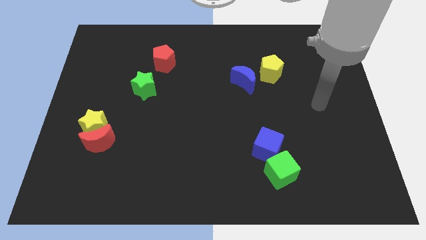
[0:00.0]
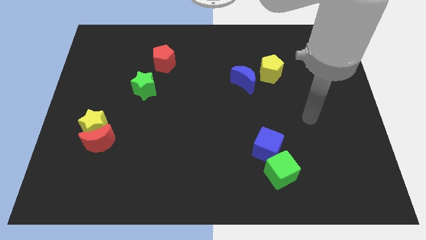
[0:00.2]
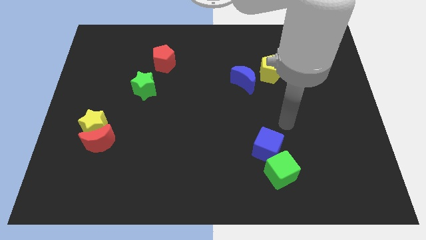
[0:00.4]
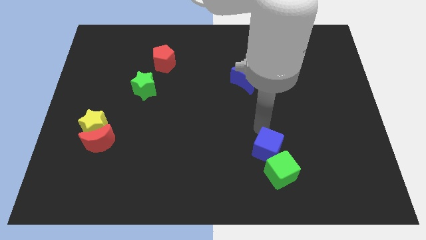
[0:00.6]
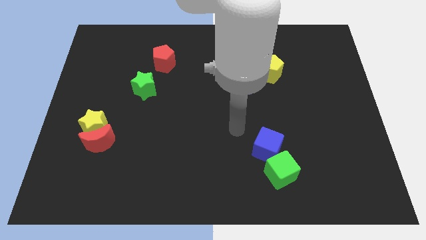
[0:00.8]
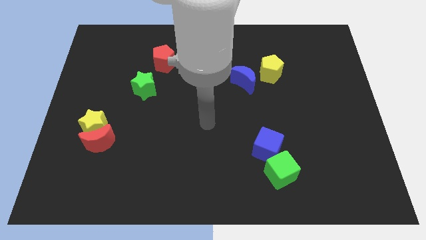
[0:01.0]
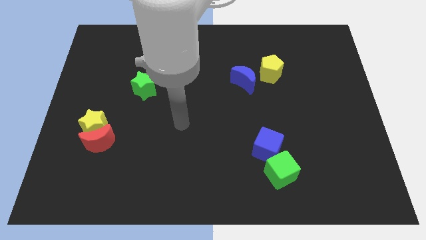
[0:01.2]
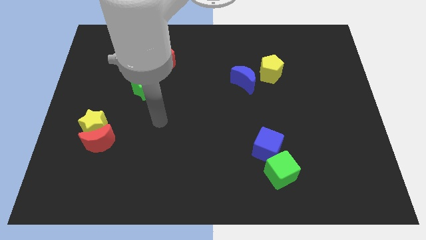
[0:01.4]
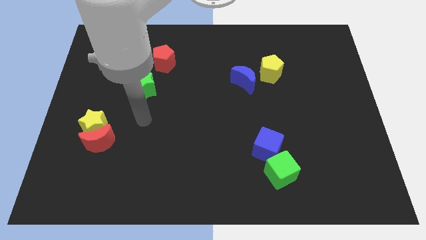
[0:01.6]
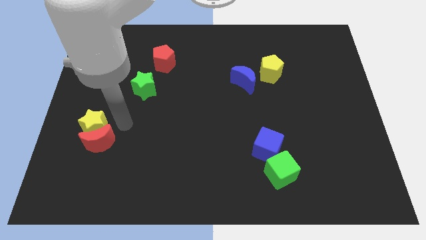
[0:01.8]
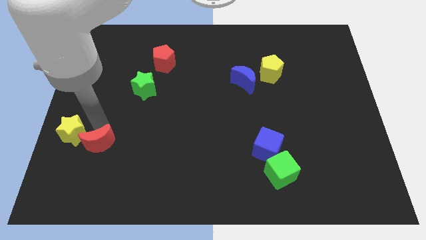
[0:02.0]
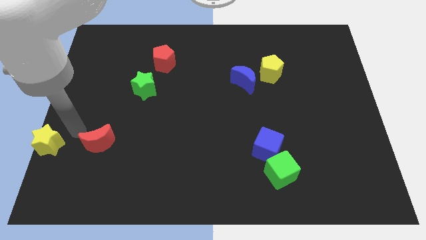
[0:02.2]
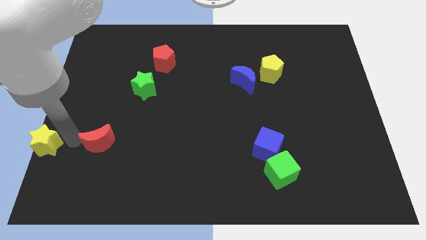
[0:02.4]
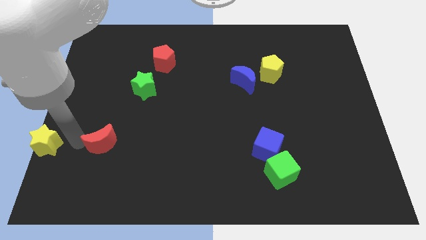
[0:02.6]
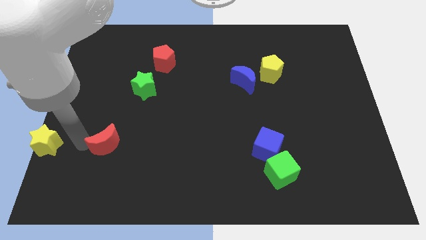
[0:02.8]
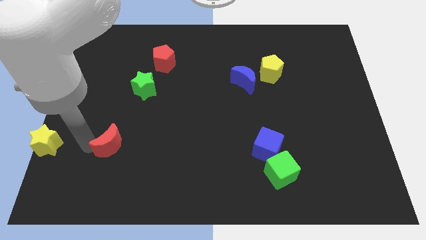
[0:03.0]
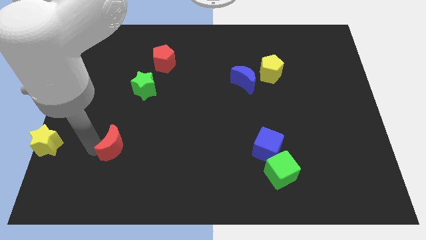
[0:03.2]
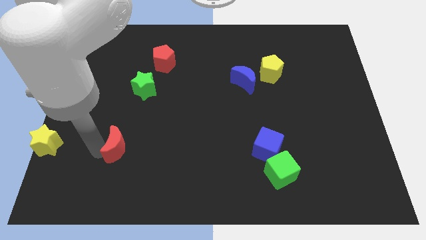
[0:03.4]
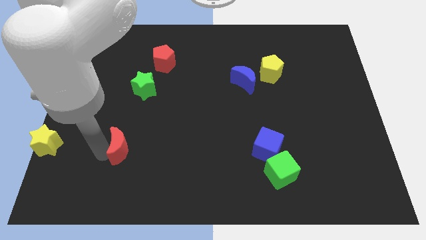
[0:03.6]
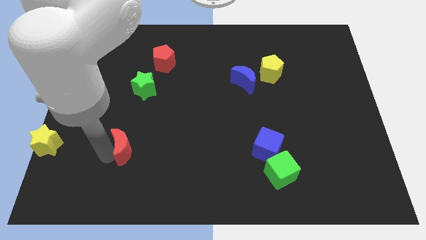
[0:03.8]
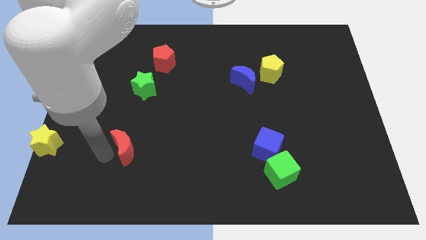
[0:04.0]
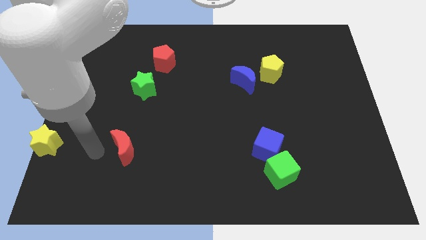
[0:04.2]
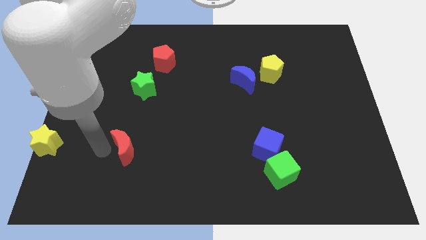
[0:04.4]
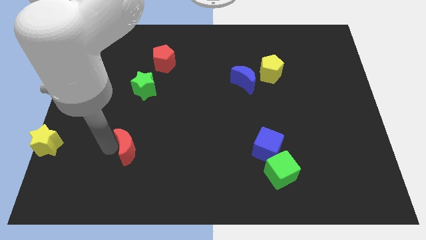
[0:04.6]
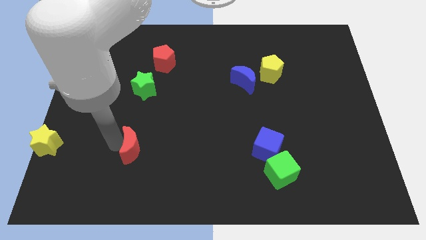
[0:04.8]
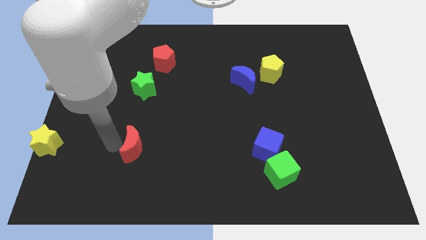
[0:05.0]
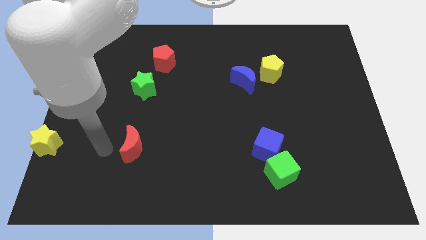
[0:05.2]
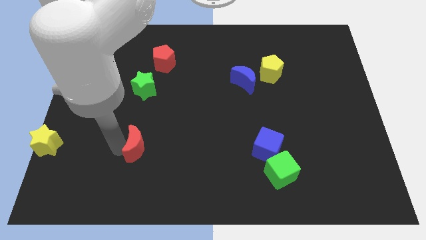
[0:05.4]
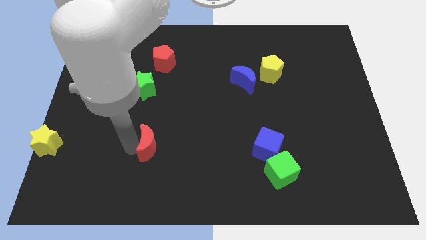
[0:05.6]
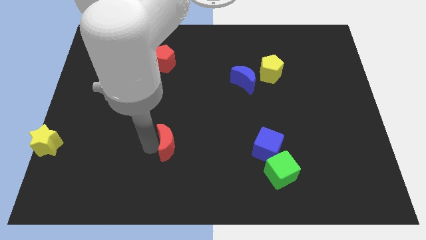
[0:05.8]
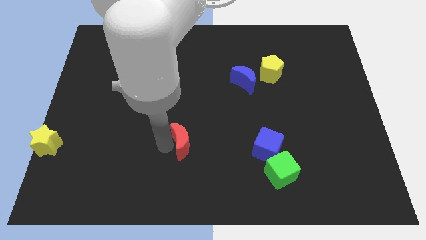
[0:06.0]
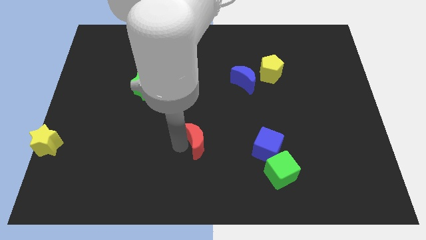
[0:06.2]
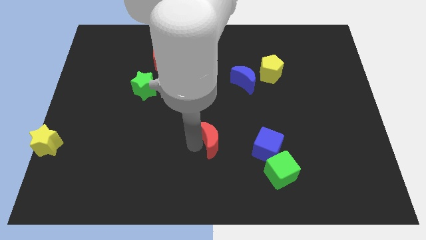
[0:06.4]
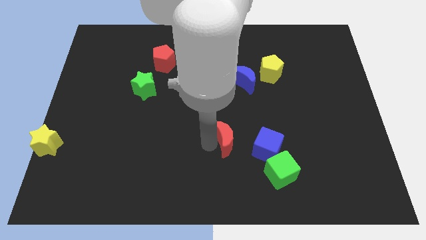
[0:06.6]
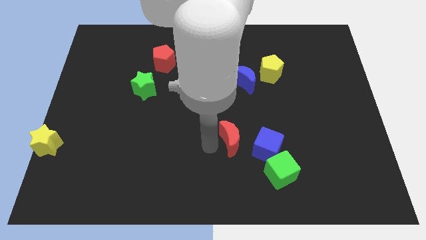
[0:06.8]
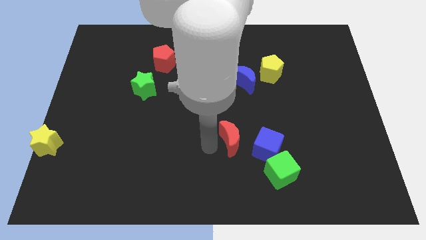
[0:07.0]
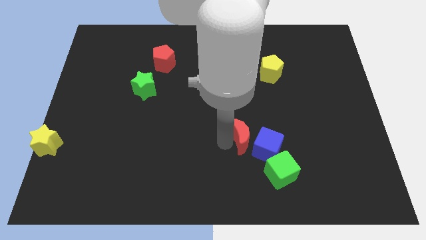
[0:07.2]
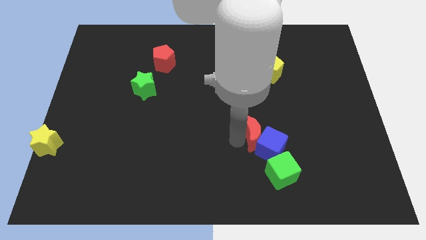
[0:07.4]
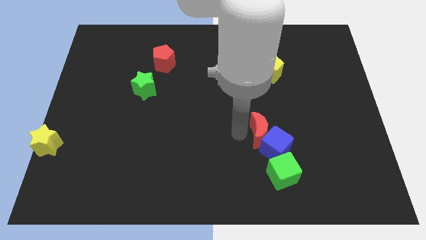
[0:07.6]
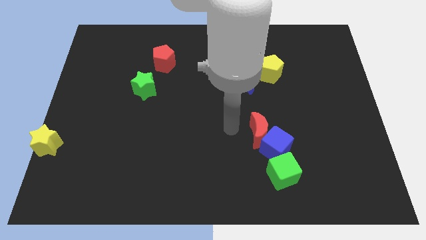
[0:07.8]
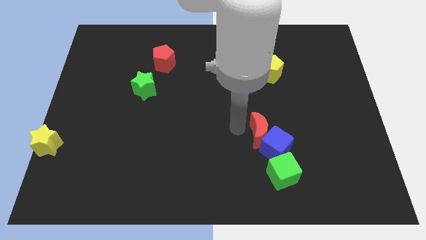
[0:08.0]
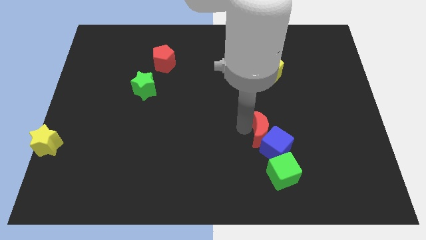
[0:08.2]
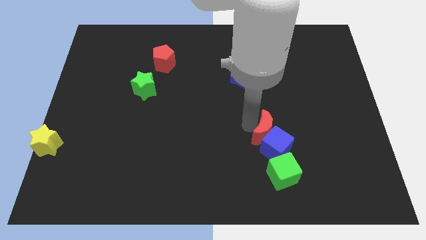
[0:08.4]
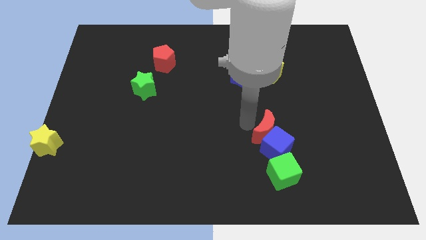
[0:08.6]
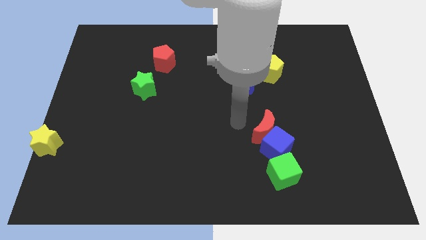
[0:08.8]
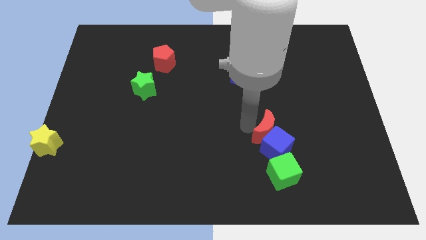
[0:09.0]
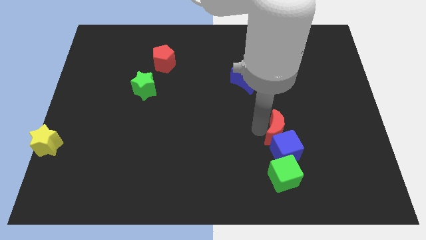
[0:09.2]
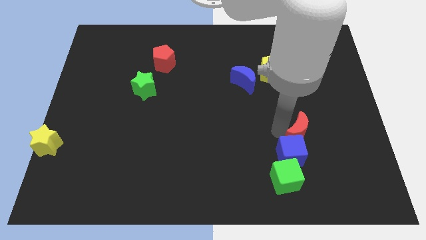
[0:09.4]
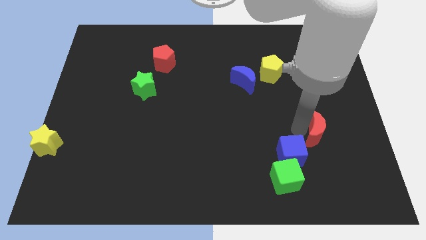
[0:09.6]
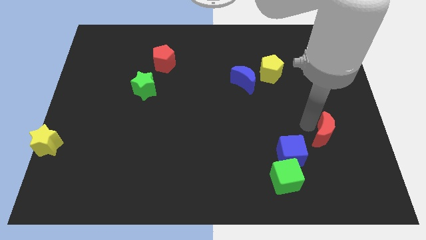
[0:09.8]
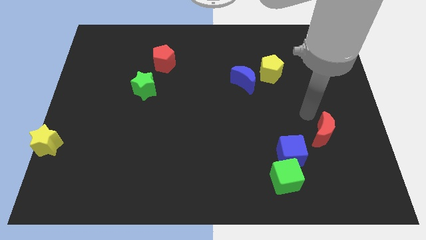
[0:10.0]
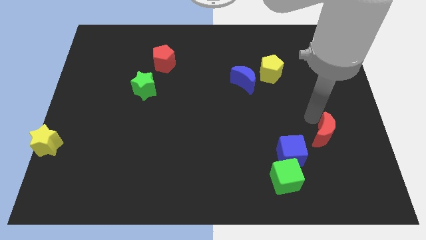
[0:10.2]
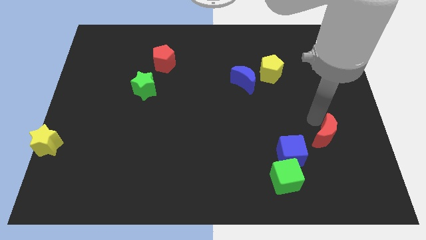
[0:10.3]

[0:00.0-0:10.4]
move the red moon right of the blue cube

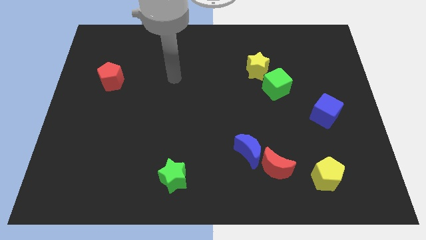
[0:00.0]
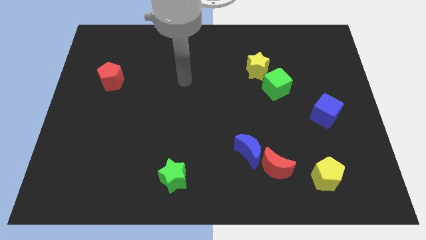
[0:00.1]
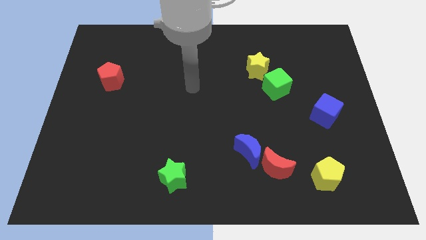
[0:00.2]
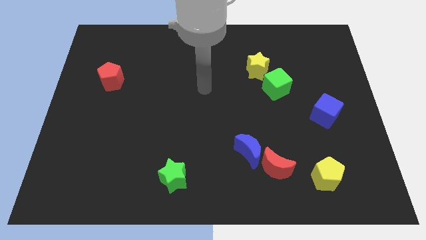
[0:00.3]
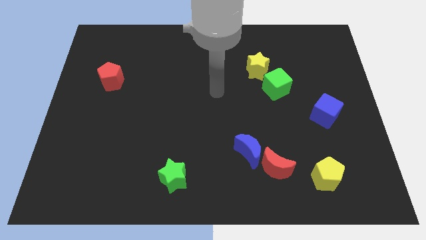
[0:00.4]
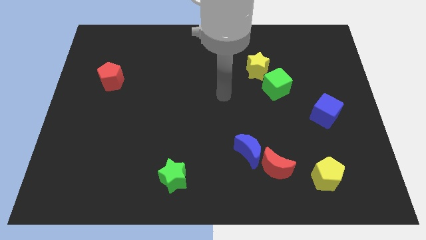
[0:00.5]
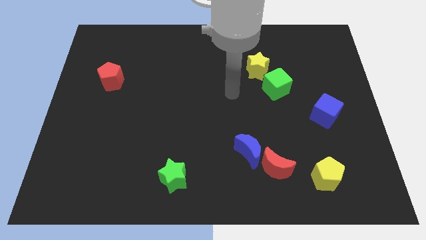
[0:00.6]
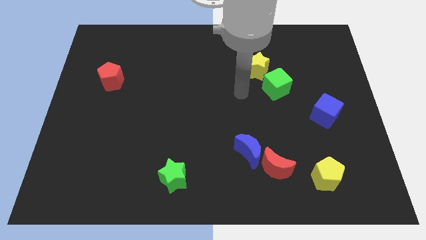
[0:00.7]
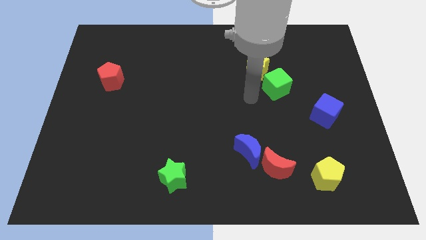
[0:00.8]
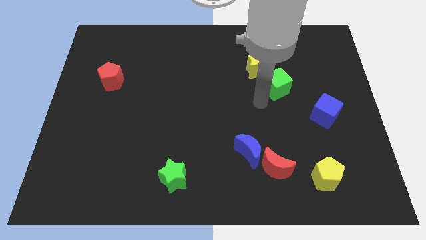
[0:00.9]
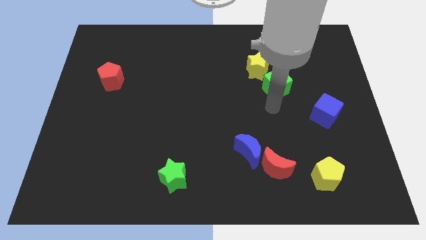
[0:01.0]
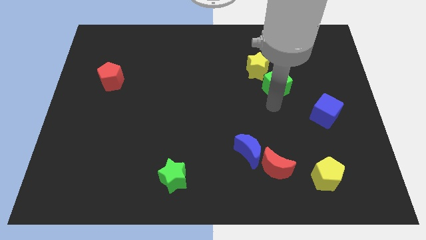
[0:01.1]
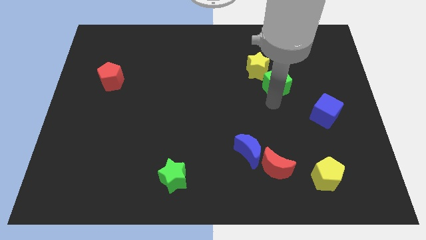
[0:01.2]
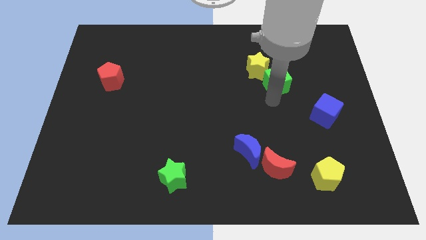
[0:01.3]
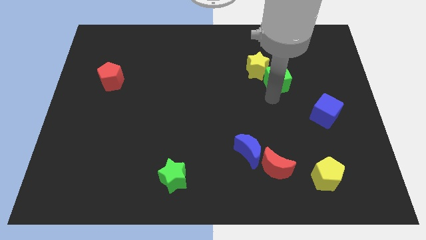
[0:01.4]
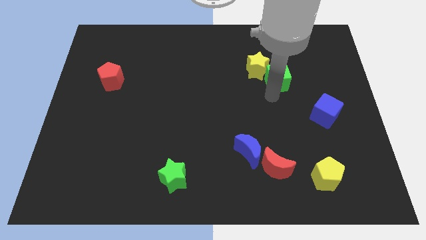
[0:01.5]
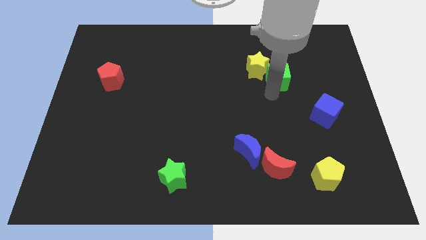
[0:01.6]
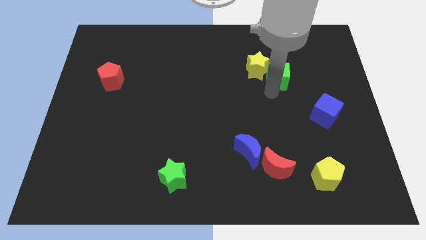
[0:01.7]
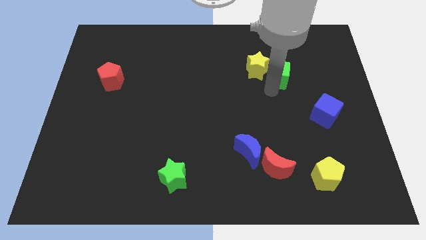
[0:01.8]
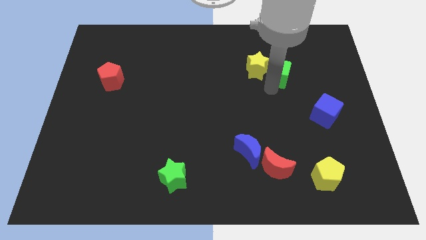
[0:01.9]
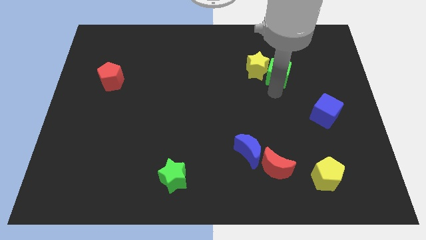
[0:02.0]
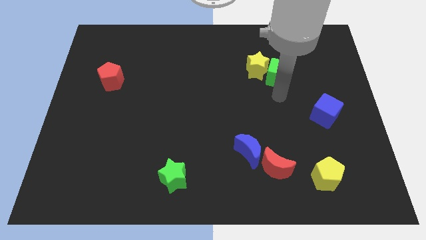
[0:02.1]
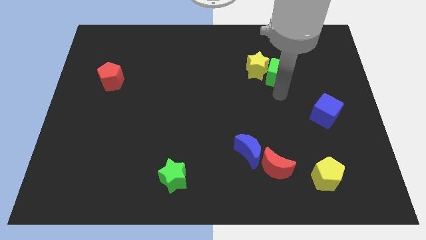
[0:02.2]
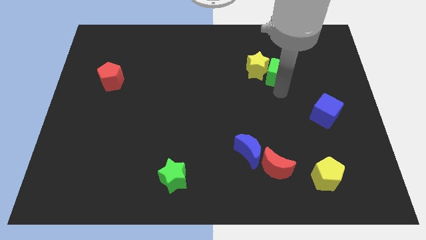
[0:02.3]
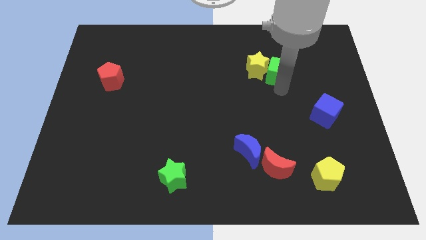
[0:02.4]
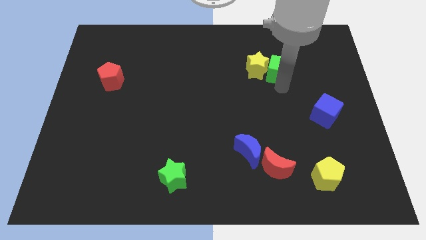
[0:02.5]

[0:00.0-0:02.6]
push the green cube to the top right of the yellow star

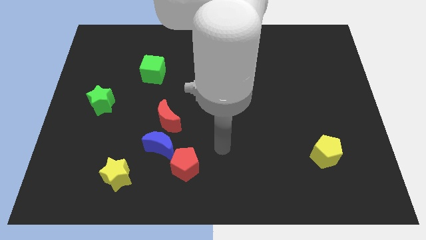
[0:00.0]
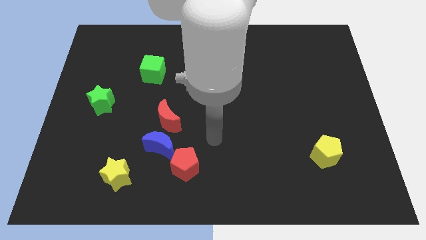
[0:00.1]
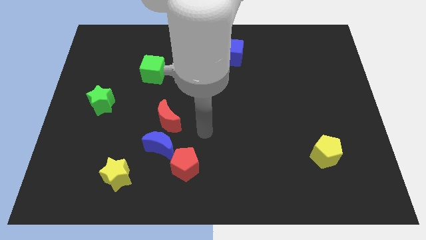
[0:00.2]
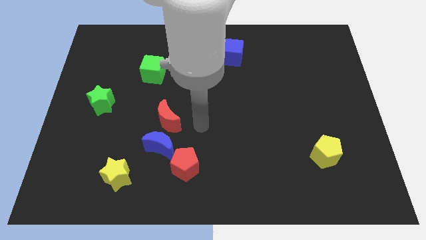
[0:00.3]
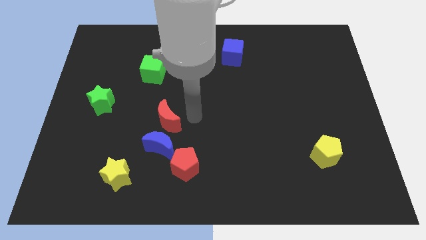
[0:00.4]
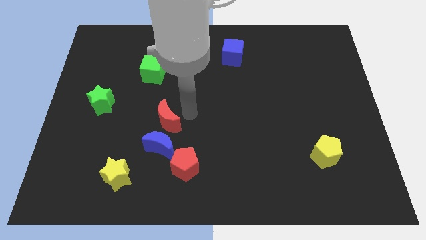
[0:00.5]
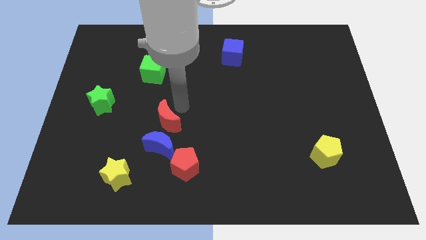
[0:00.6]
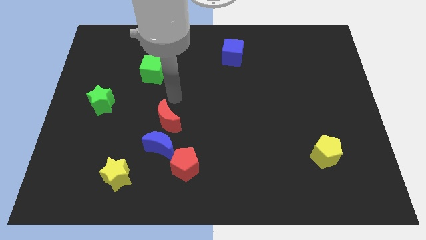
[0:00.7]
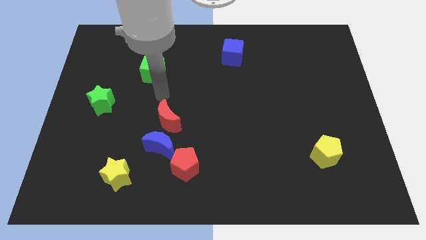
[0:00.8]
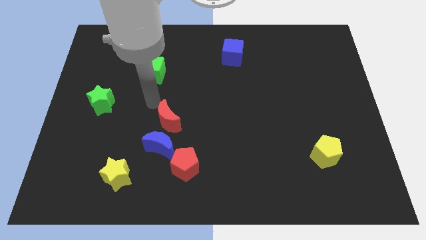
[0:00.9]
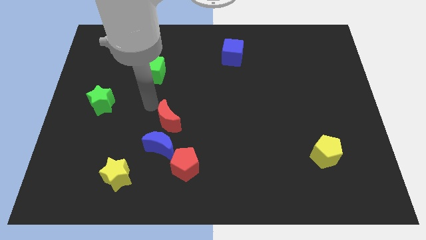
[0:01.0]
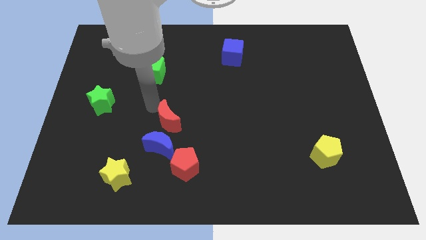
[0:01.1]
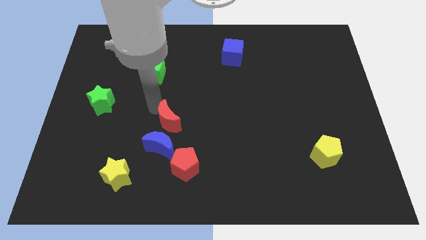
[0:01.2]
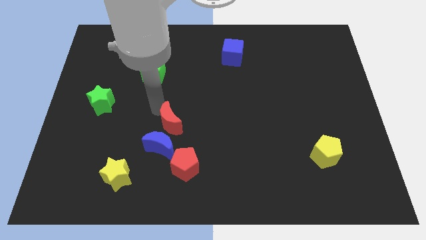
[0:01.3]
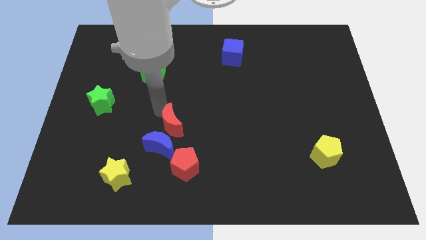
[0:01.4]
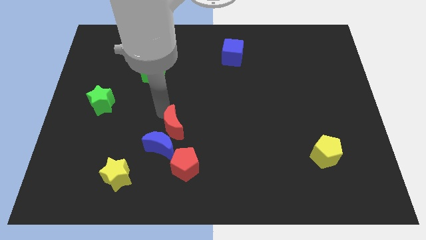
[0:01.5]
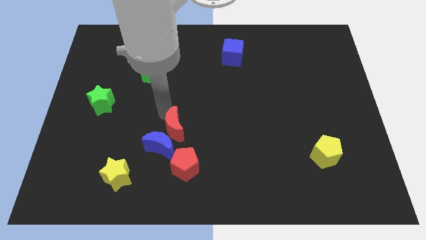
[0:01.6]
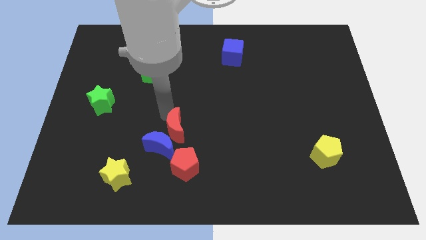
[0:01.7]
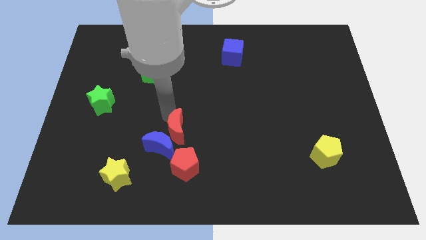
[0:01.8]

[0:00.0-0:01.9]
put the red moon to the right side of the blue moon
